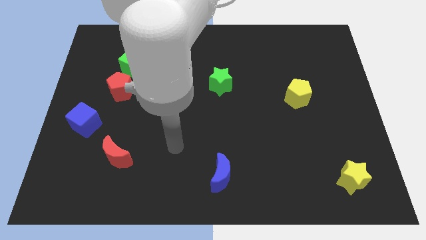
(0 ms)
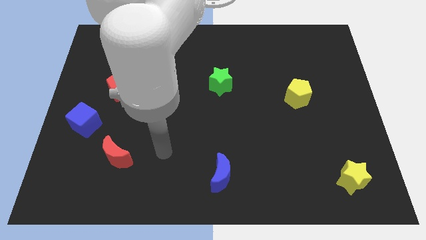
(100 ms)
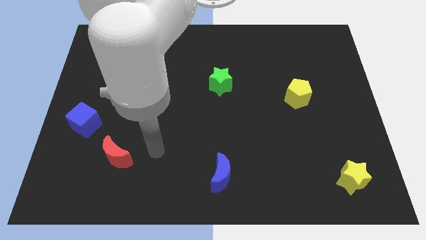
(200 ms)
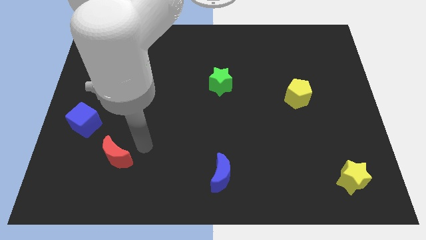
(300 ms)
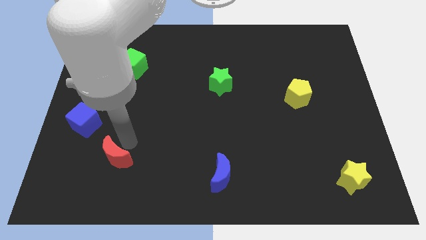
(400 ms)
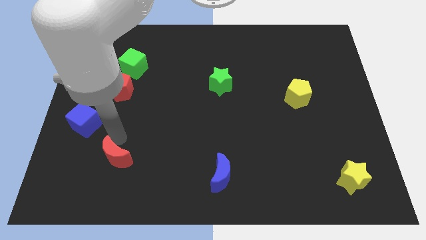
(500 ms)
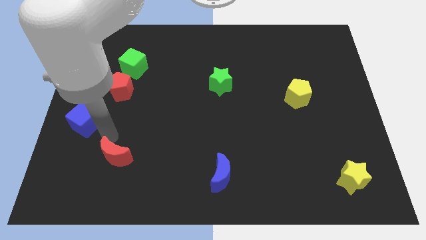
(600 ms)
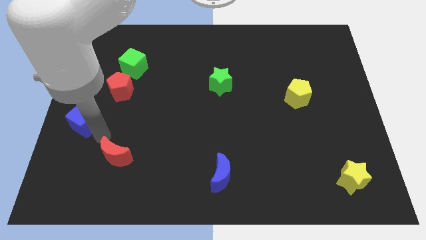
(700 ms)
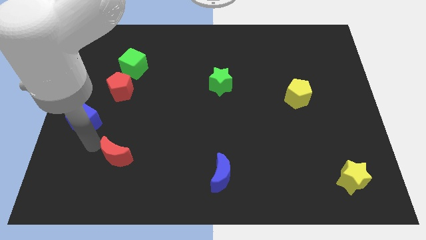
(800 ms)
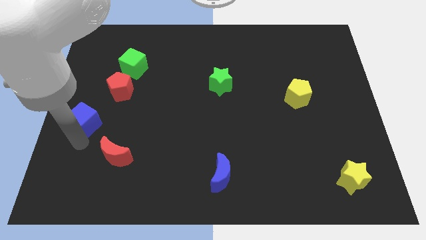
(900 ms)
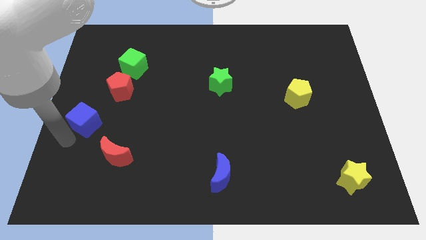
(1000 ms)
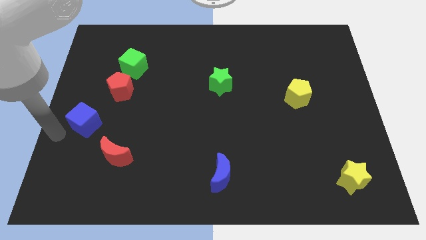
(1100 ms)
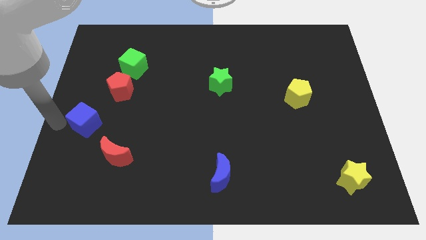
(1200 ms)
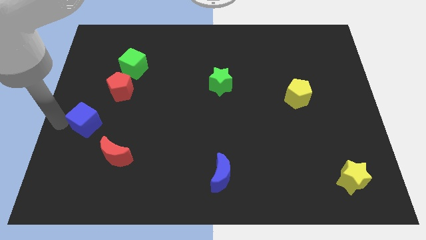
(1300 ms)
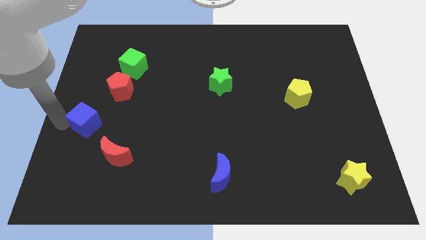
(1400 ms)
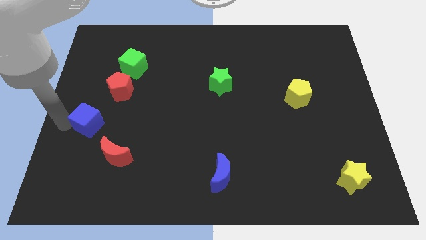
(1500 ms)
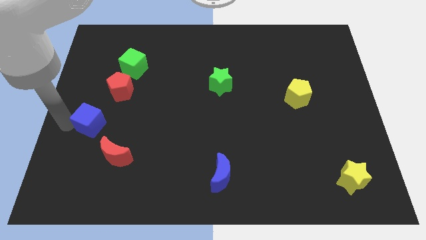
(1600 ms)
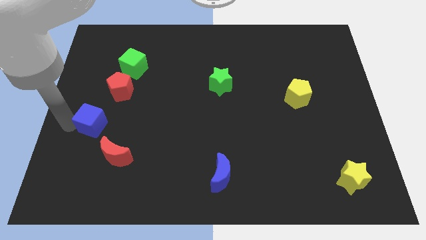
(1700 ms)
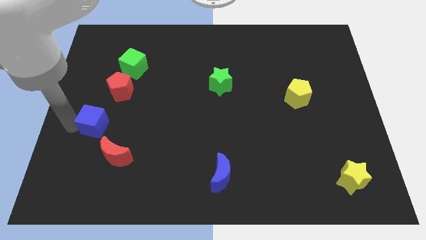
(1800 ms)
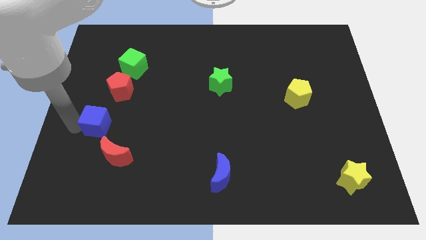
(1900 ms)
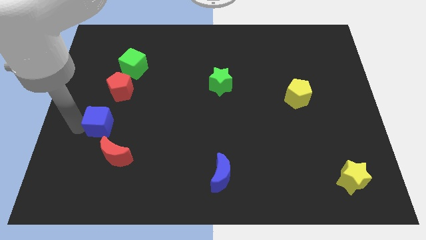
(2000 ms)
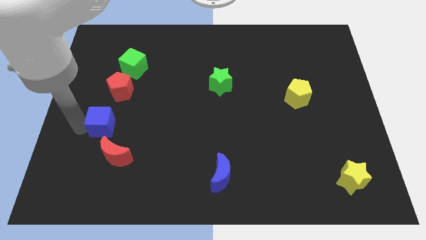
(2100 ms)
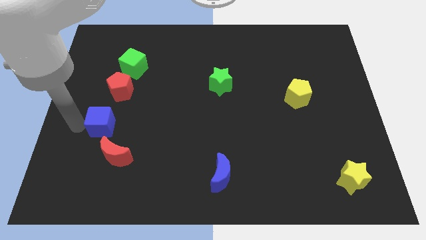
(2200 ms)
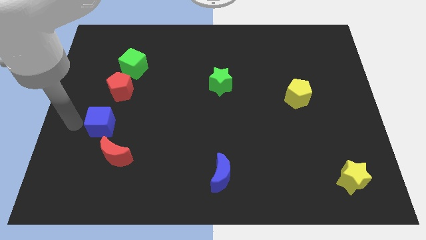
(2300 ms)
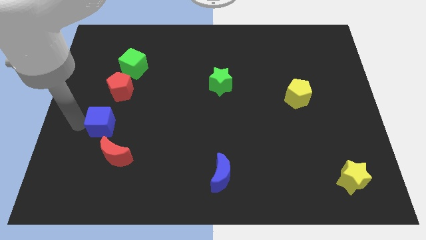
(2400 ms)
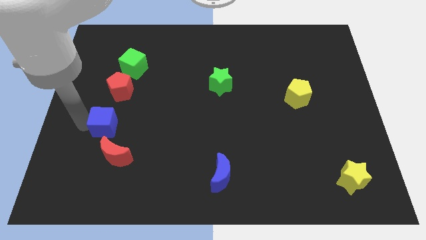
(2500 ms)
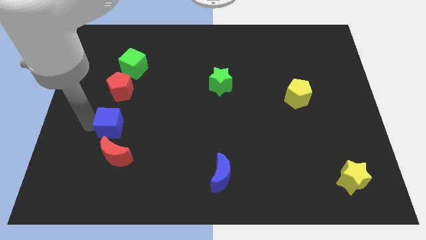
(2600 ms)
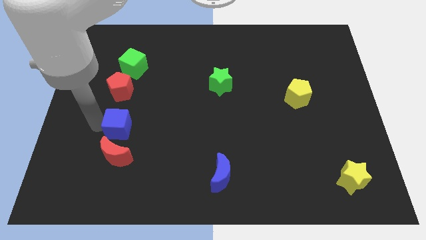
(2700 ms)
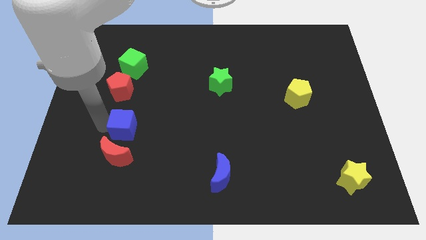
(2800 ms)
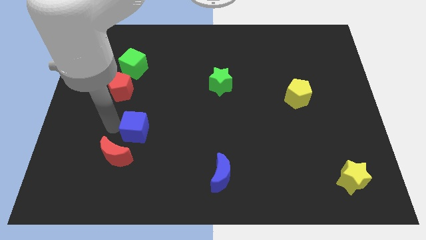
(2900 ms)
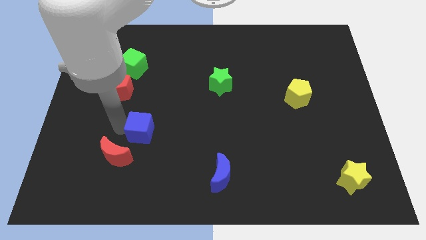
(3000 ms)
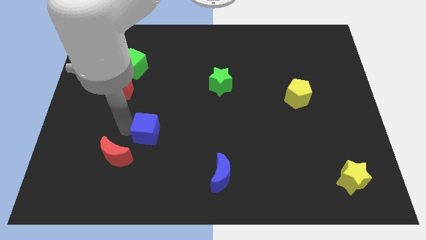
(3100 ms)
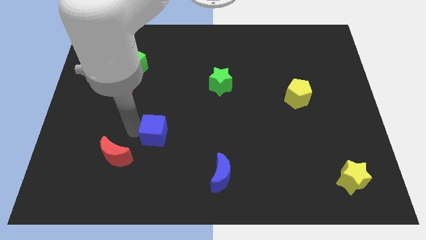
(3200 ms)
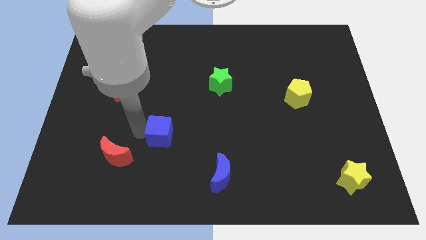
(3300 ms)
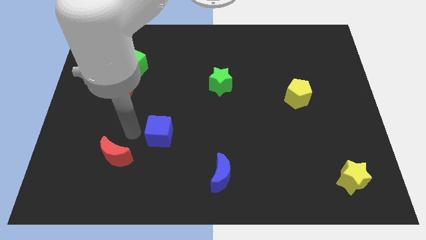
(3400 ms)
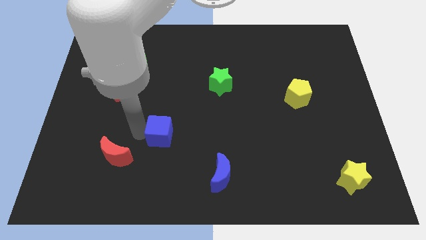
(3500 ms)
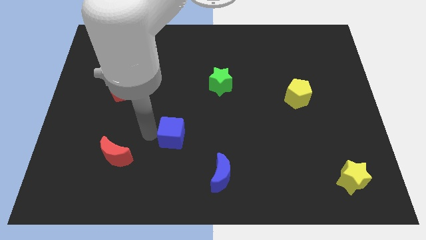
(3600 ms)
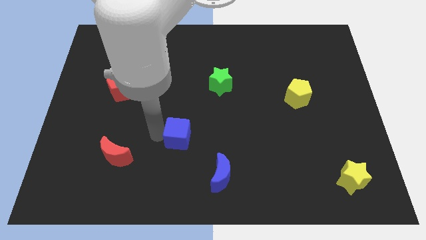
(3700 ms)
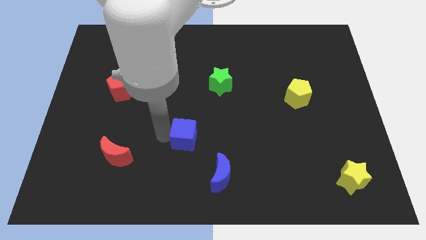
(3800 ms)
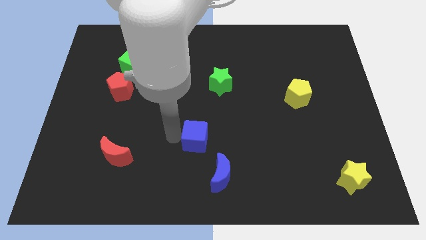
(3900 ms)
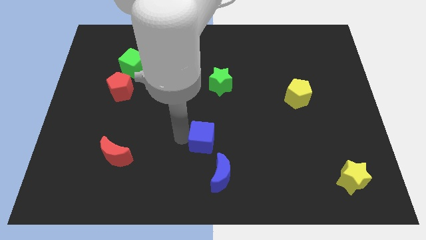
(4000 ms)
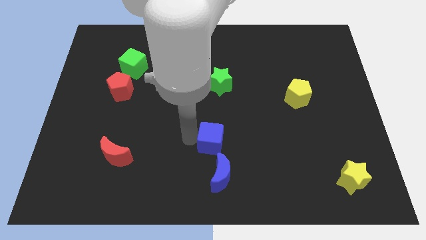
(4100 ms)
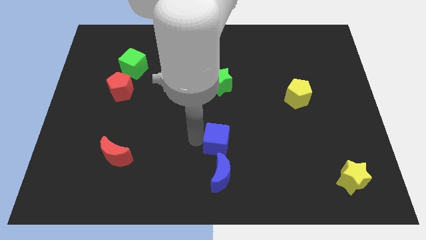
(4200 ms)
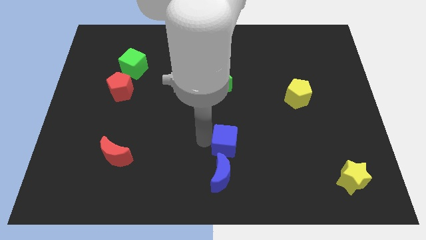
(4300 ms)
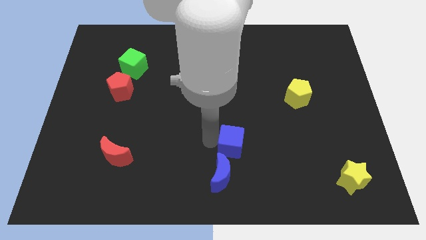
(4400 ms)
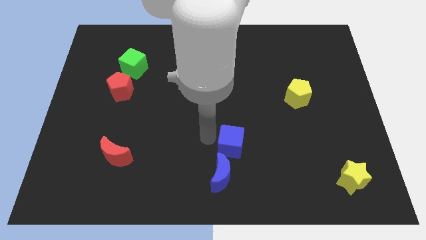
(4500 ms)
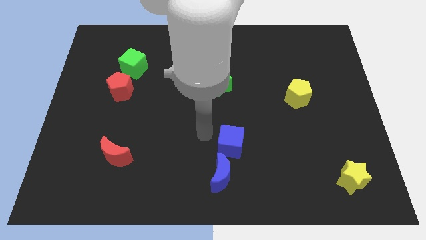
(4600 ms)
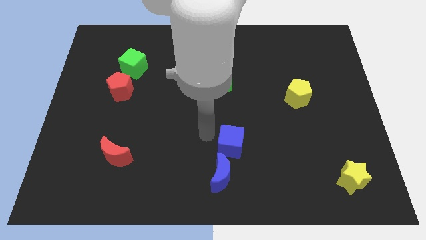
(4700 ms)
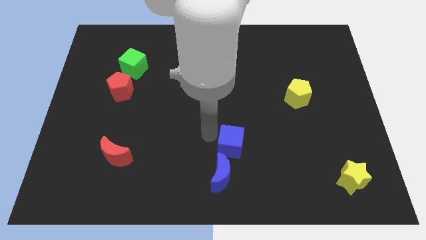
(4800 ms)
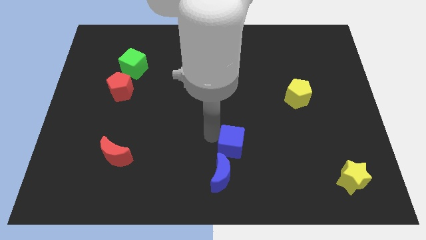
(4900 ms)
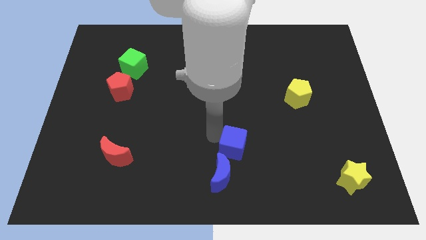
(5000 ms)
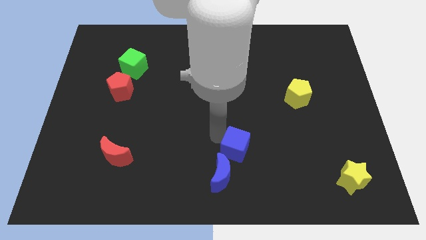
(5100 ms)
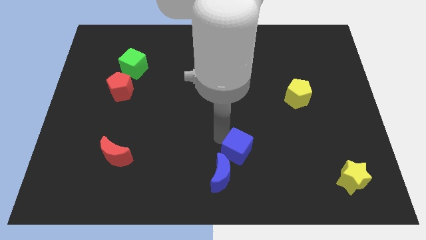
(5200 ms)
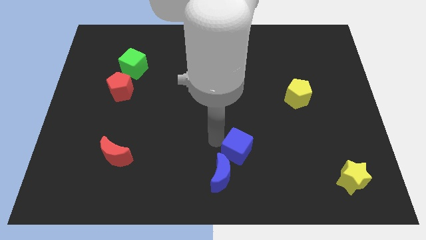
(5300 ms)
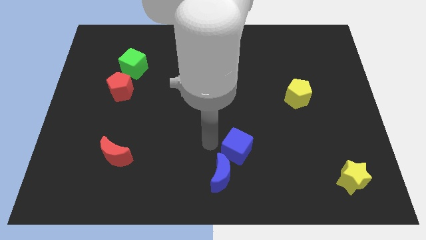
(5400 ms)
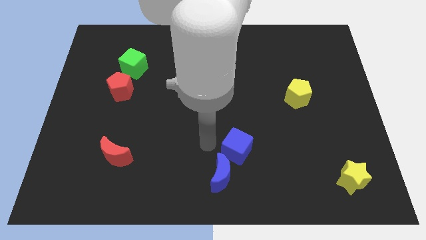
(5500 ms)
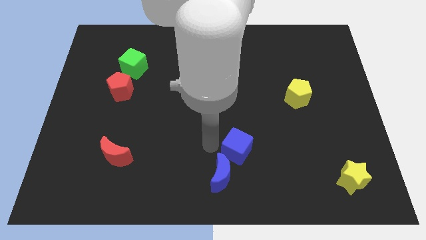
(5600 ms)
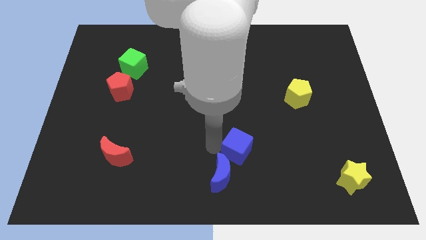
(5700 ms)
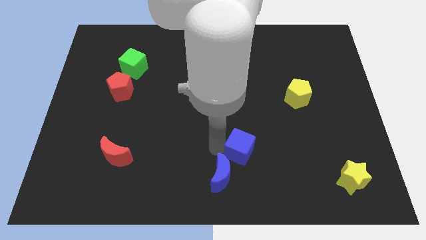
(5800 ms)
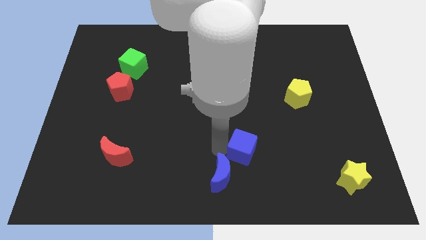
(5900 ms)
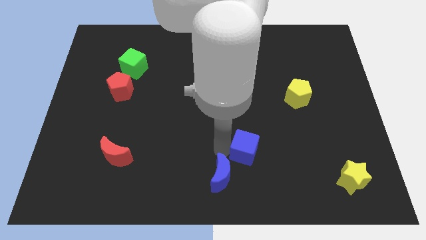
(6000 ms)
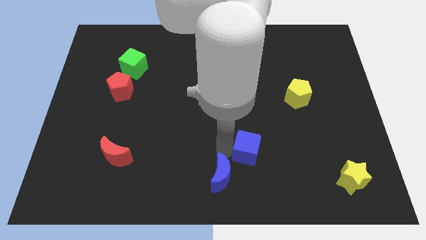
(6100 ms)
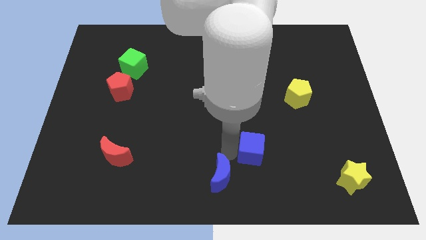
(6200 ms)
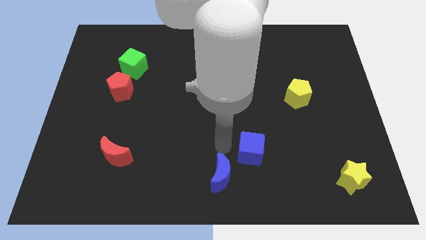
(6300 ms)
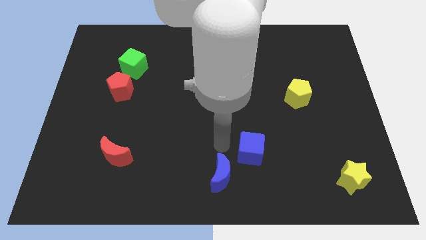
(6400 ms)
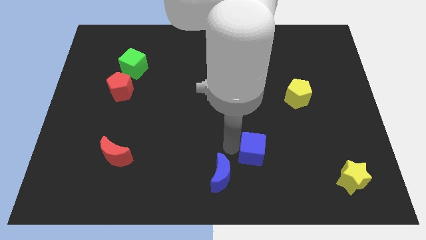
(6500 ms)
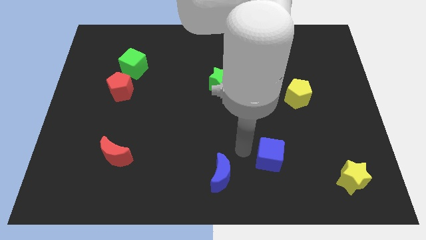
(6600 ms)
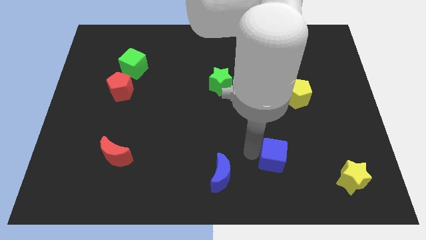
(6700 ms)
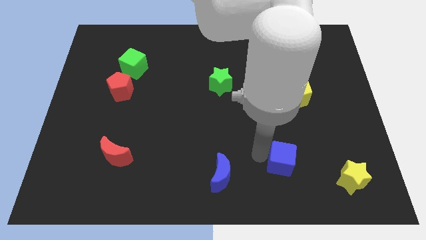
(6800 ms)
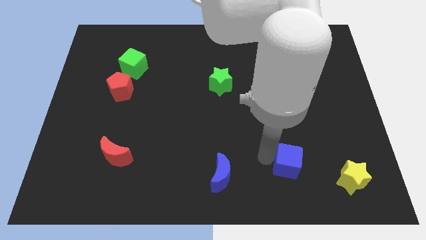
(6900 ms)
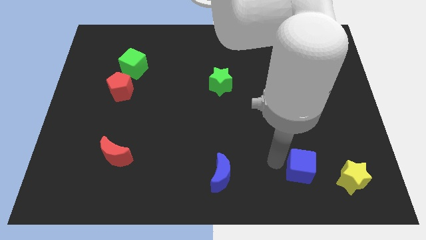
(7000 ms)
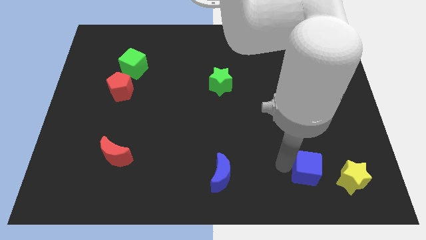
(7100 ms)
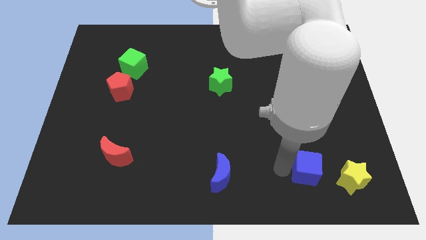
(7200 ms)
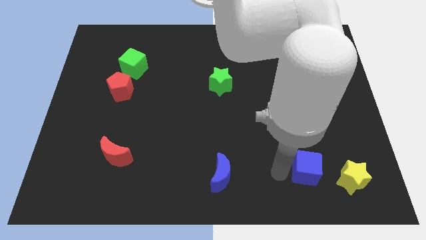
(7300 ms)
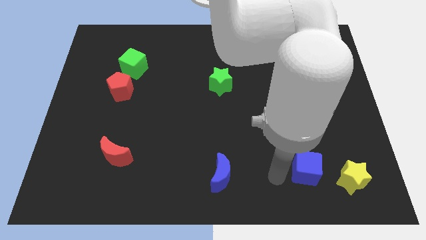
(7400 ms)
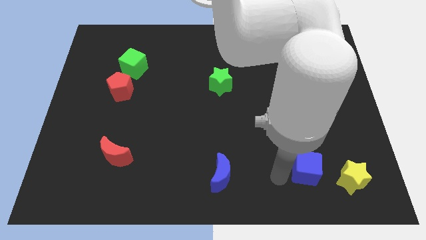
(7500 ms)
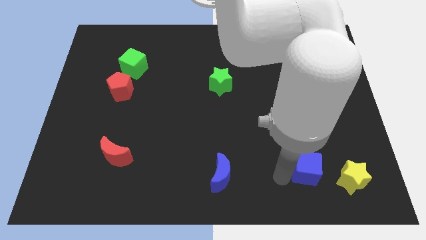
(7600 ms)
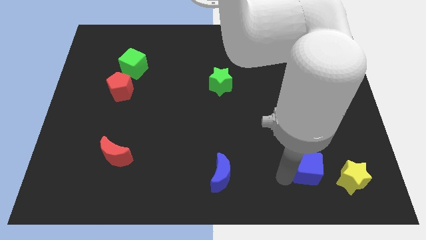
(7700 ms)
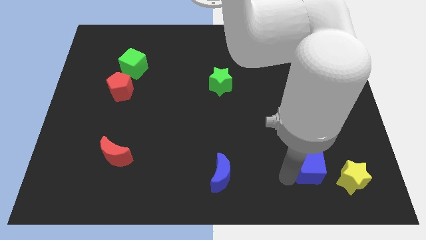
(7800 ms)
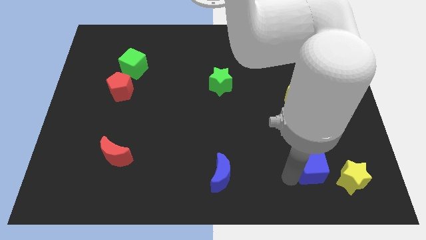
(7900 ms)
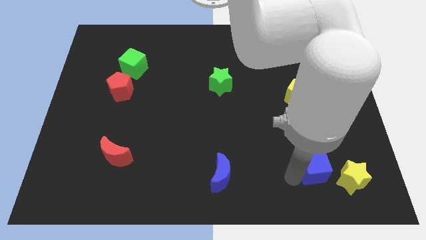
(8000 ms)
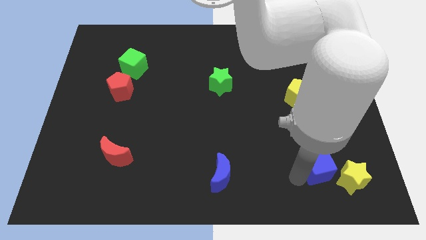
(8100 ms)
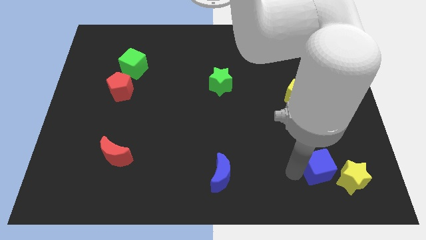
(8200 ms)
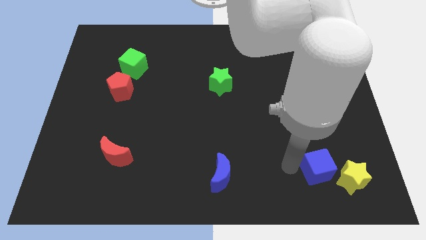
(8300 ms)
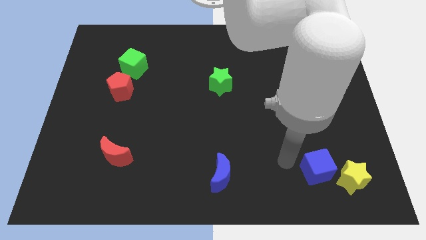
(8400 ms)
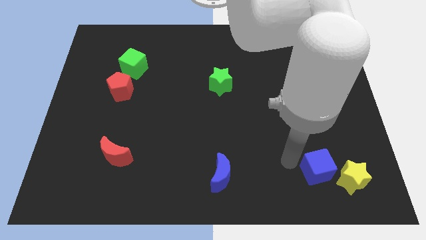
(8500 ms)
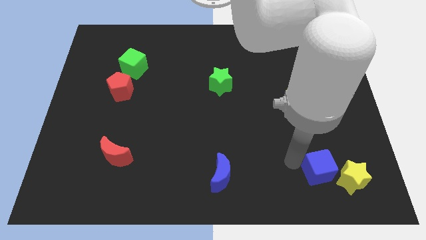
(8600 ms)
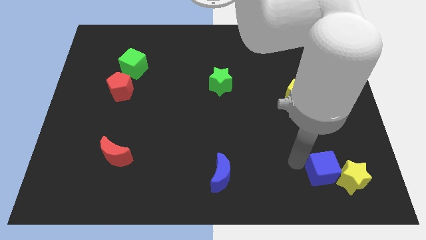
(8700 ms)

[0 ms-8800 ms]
slide the blue cube to the yellow star
